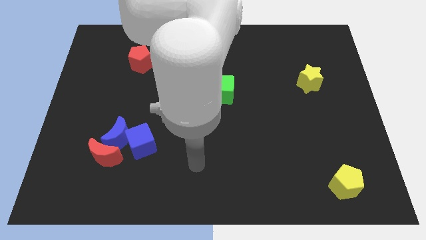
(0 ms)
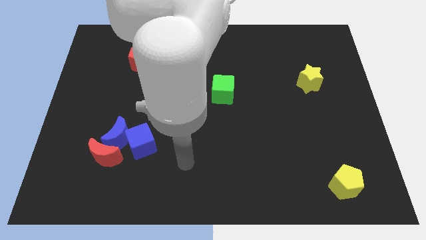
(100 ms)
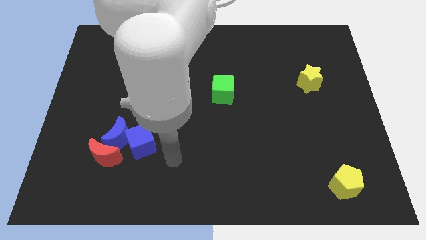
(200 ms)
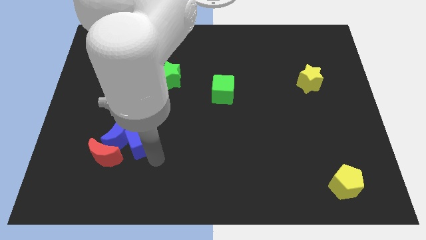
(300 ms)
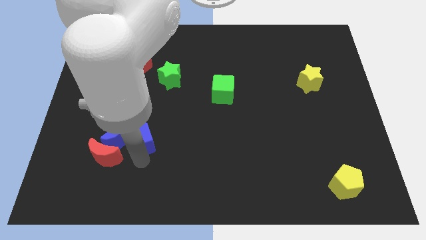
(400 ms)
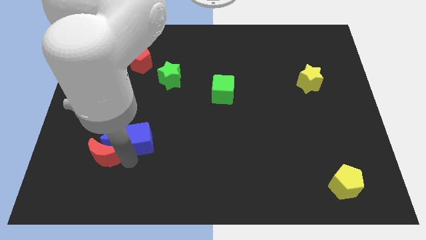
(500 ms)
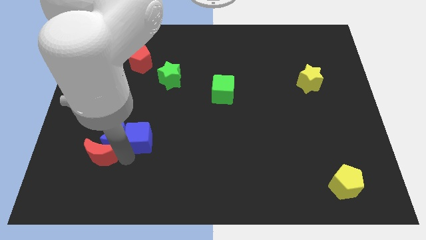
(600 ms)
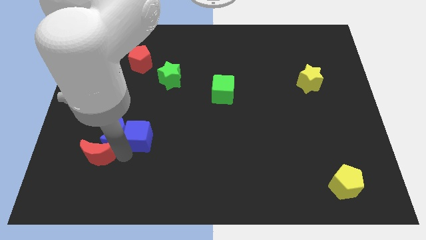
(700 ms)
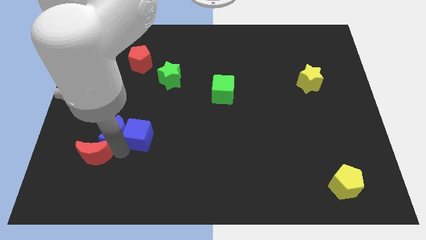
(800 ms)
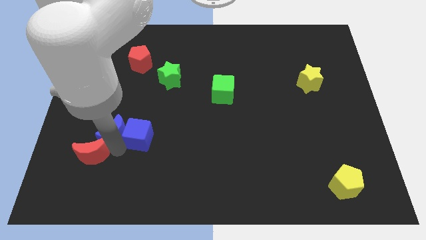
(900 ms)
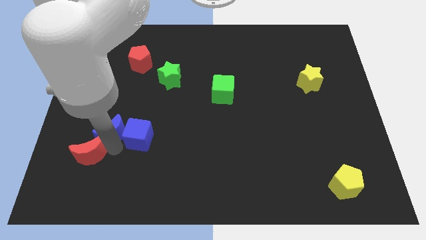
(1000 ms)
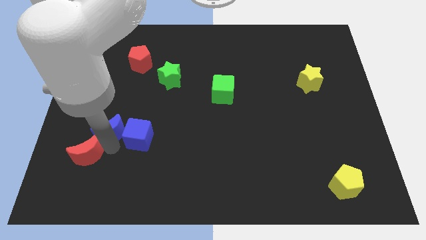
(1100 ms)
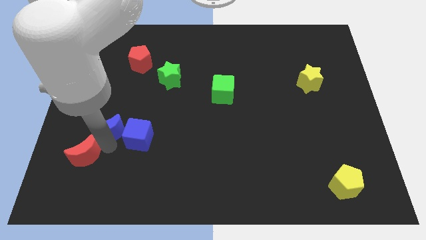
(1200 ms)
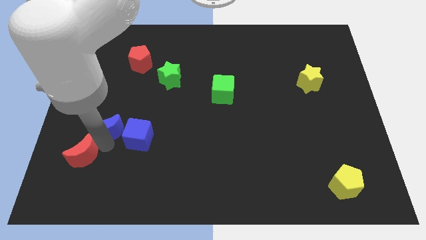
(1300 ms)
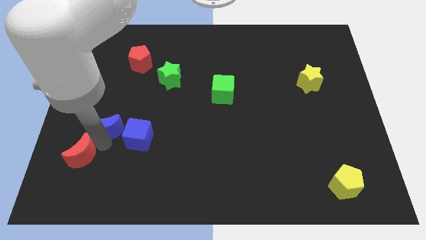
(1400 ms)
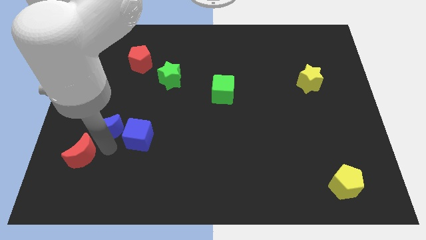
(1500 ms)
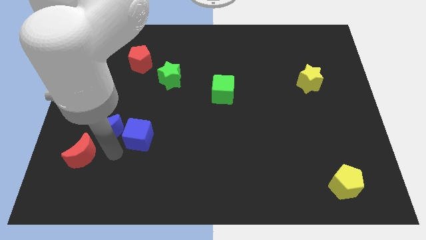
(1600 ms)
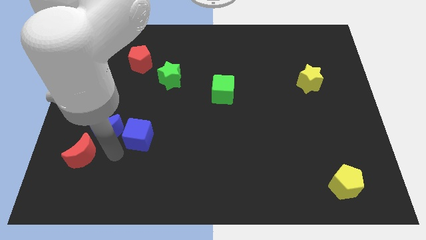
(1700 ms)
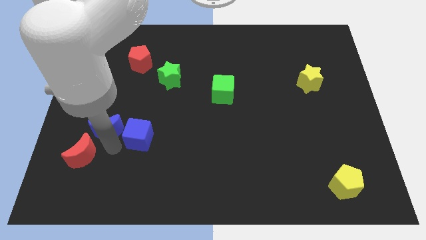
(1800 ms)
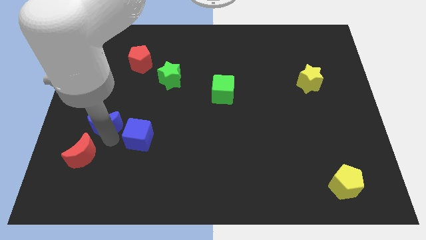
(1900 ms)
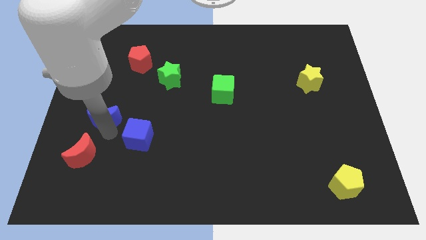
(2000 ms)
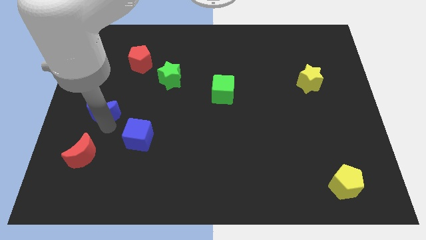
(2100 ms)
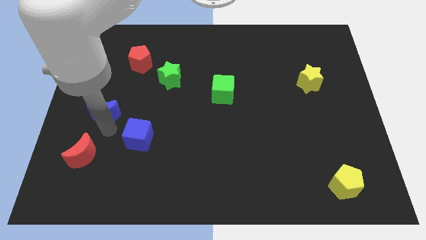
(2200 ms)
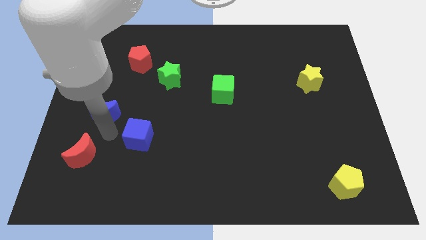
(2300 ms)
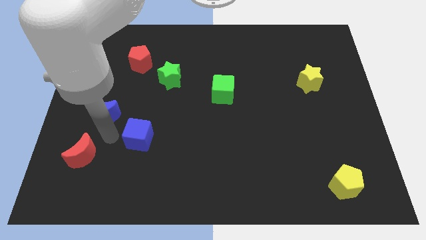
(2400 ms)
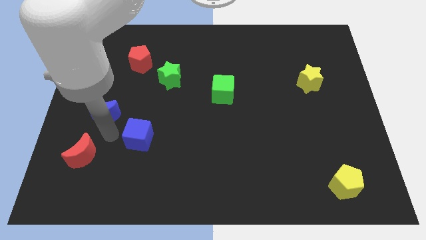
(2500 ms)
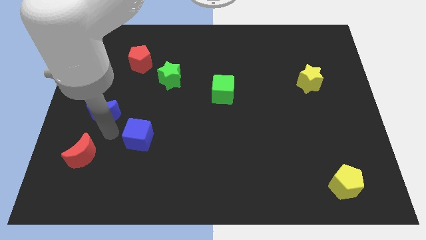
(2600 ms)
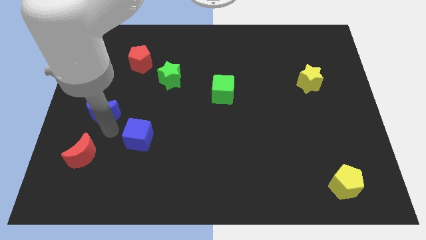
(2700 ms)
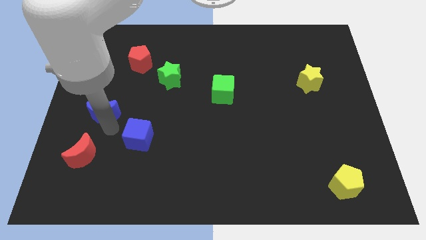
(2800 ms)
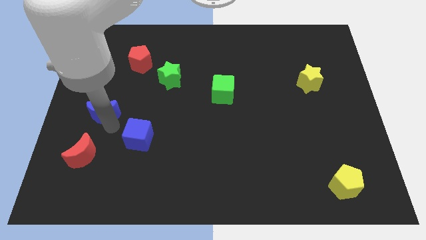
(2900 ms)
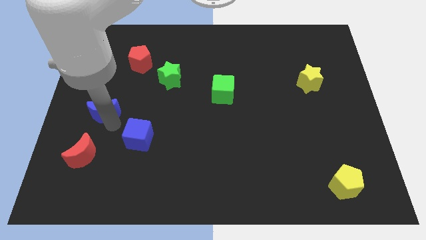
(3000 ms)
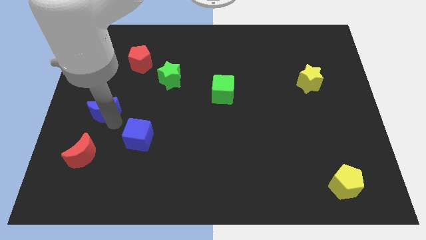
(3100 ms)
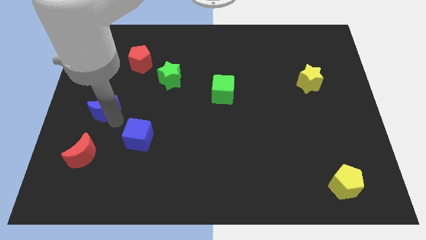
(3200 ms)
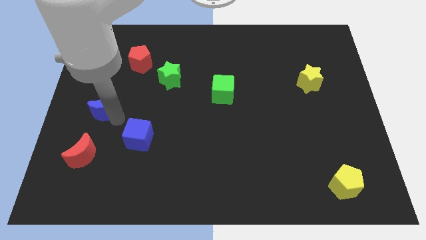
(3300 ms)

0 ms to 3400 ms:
pull the blue moon apart from the red moon and blue cube

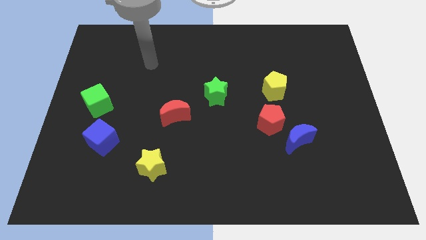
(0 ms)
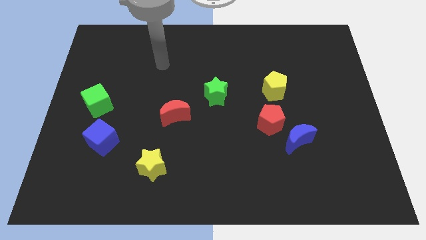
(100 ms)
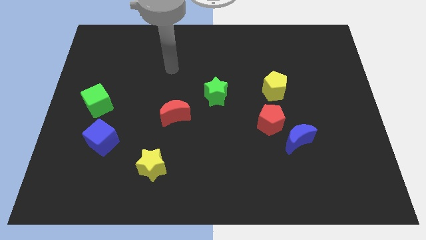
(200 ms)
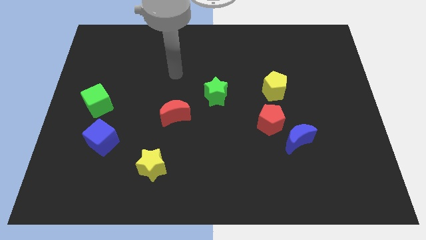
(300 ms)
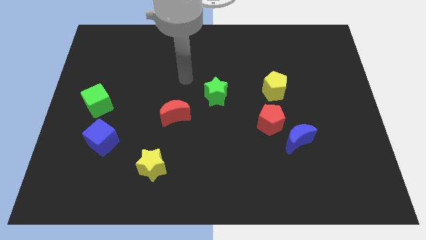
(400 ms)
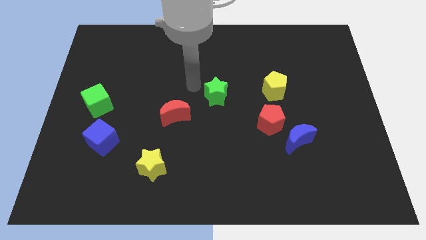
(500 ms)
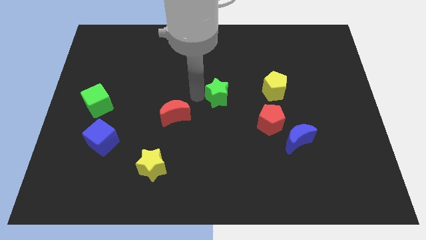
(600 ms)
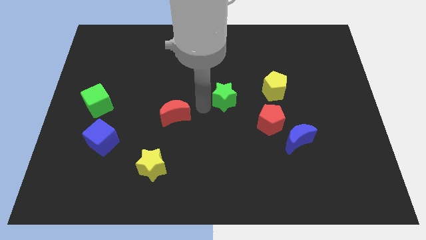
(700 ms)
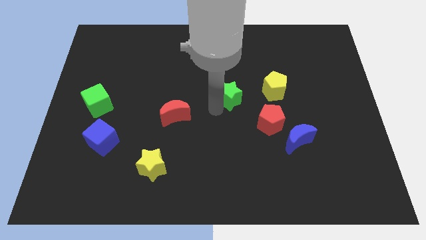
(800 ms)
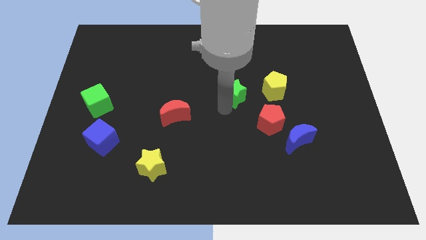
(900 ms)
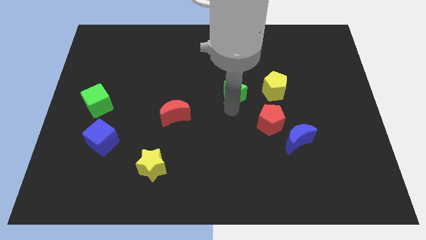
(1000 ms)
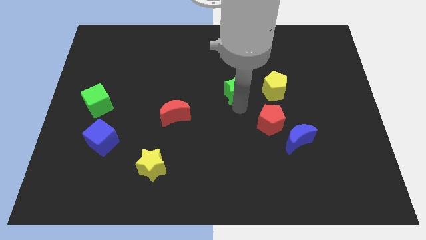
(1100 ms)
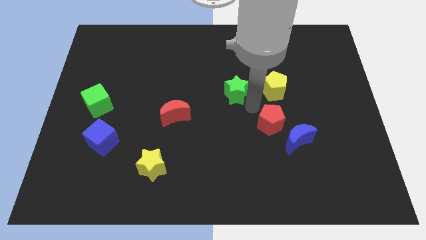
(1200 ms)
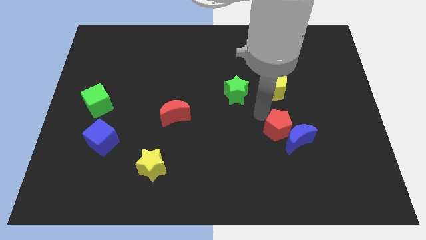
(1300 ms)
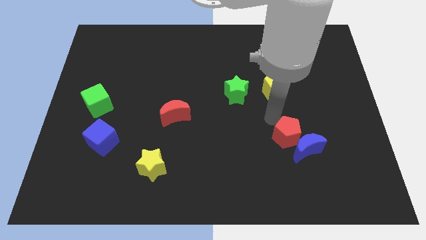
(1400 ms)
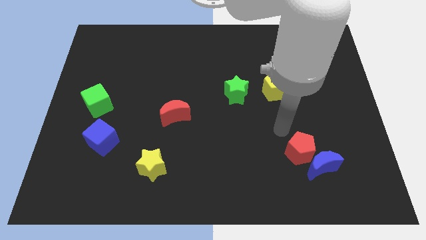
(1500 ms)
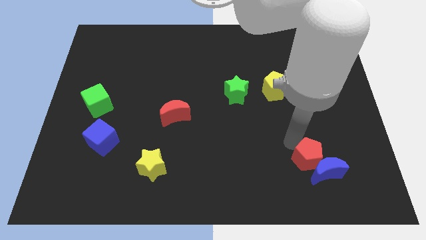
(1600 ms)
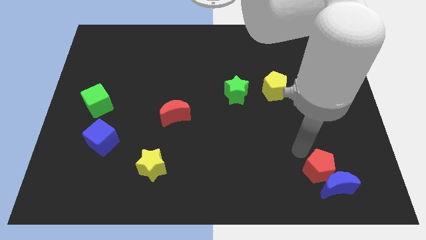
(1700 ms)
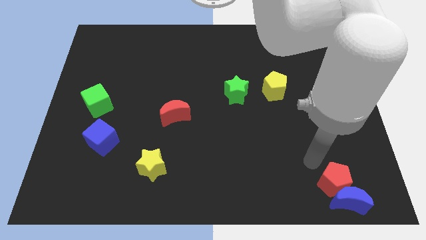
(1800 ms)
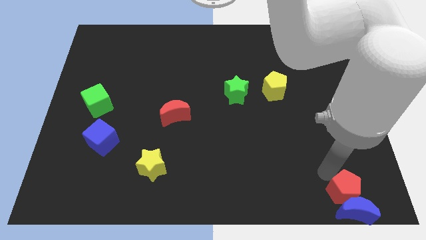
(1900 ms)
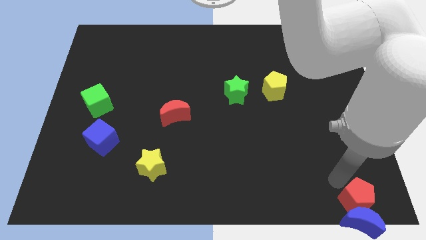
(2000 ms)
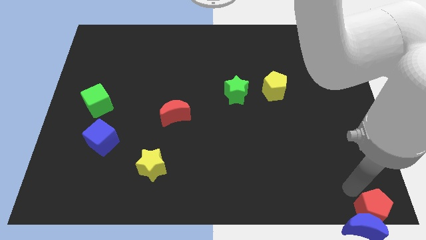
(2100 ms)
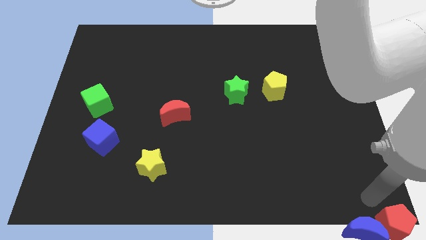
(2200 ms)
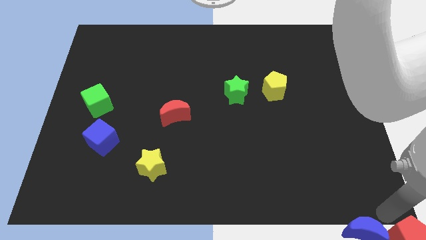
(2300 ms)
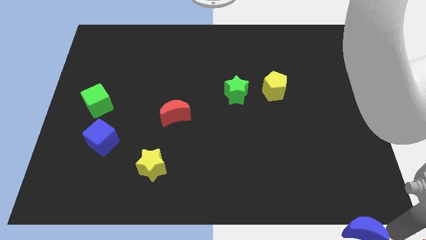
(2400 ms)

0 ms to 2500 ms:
pull the blue moon apart from the red pentagon

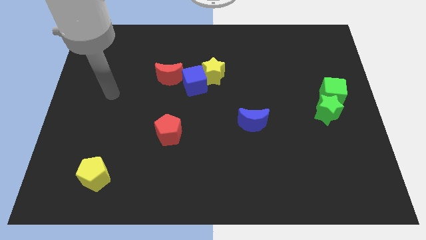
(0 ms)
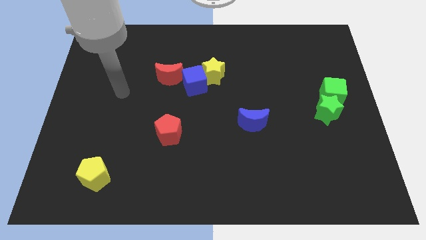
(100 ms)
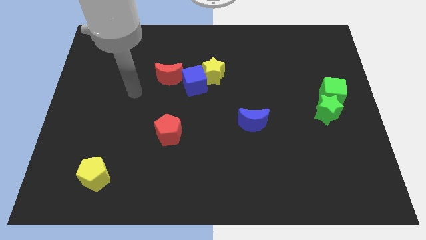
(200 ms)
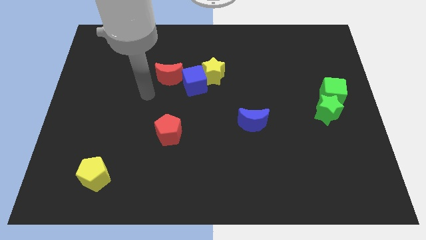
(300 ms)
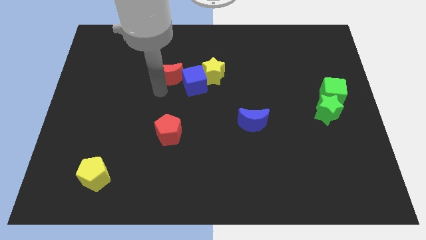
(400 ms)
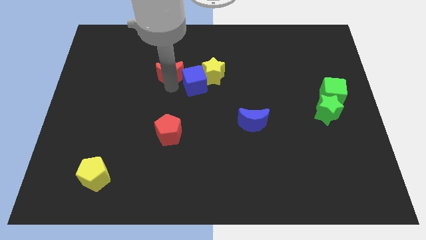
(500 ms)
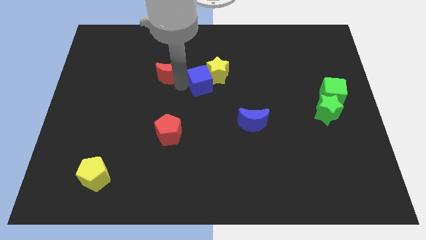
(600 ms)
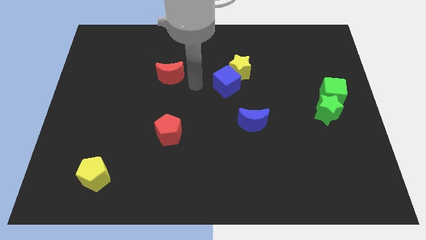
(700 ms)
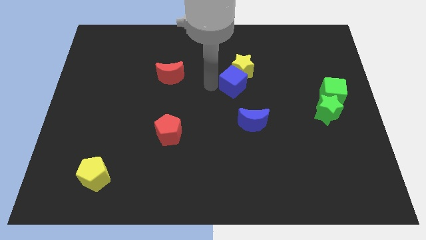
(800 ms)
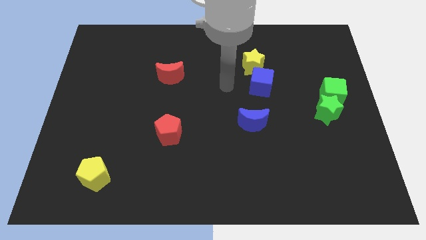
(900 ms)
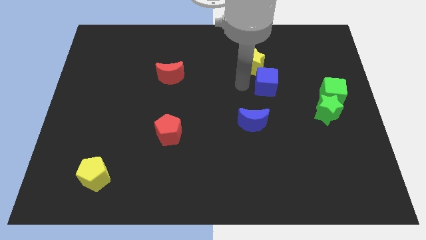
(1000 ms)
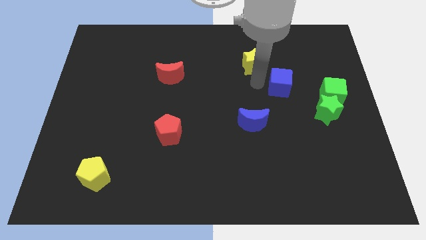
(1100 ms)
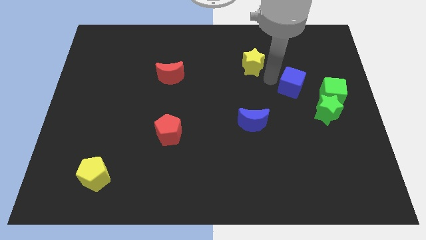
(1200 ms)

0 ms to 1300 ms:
separate the yellow star from the blue cube

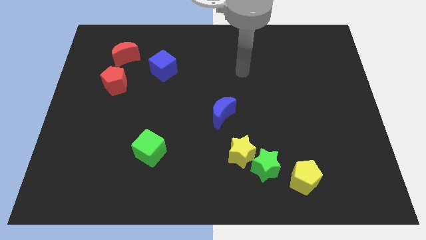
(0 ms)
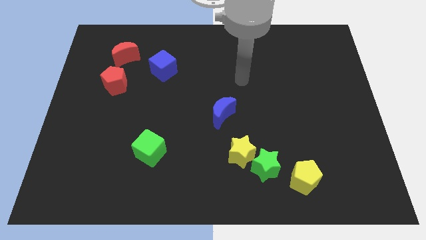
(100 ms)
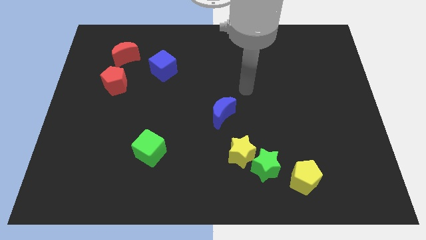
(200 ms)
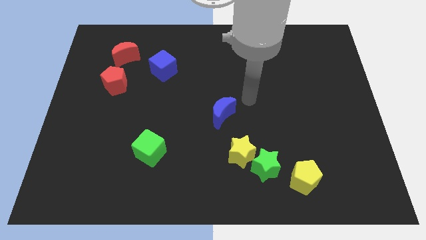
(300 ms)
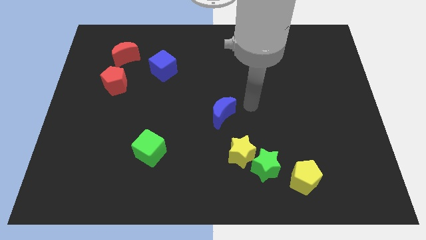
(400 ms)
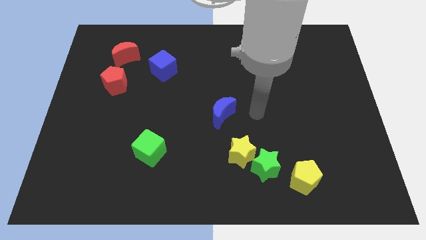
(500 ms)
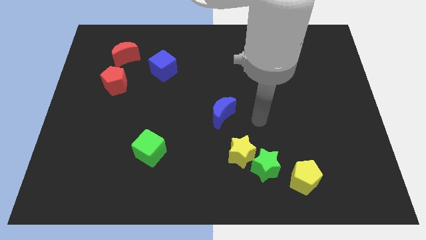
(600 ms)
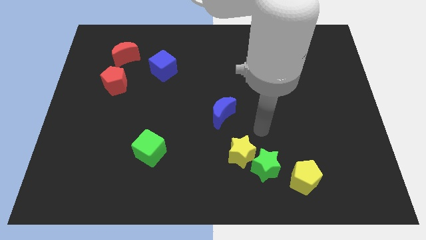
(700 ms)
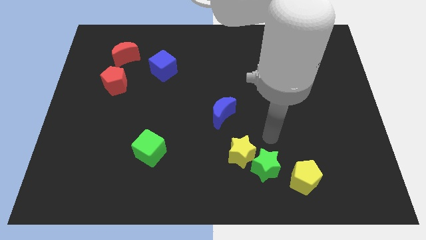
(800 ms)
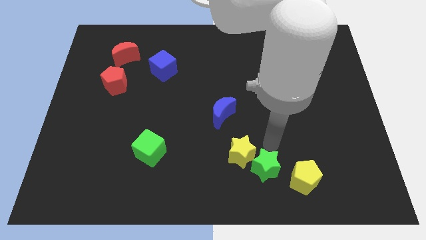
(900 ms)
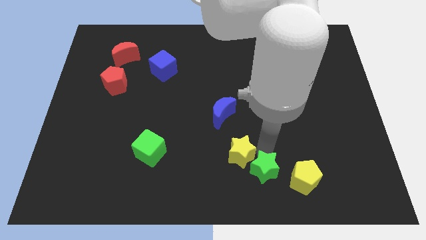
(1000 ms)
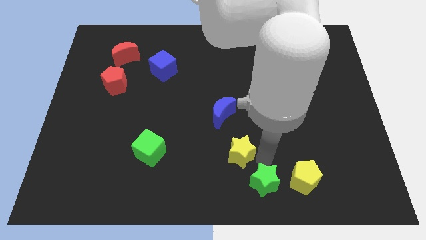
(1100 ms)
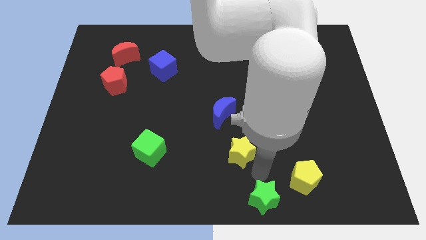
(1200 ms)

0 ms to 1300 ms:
separate the yellow star from the green star

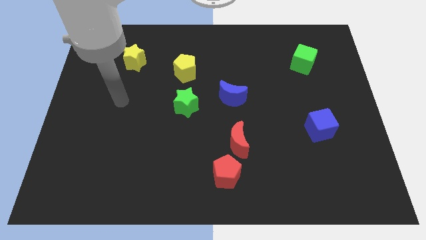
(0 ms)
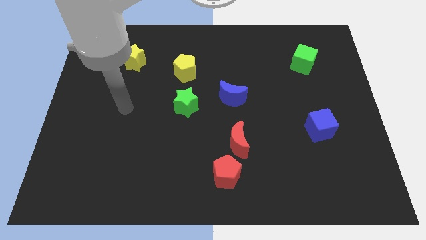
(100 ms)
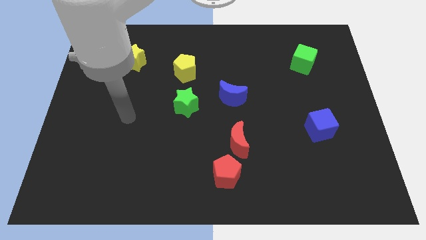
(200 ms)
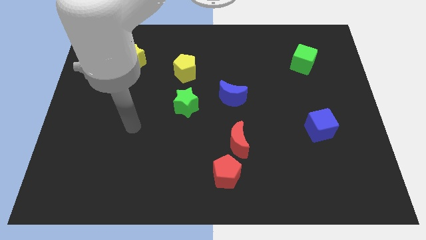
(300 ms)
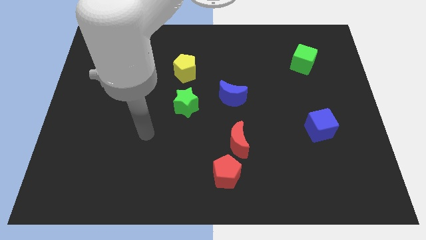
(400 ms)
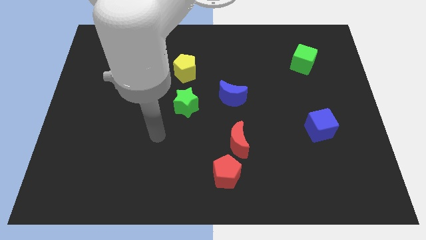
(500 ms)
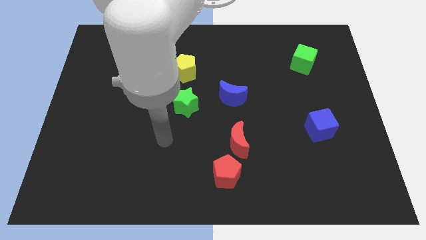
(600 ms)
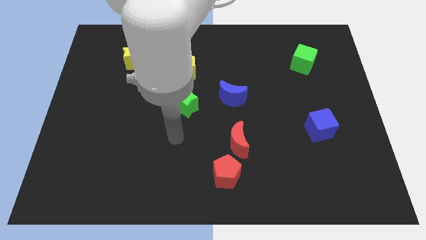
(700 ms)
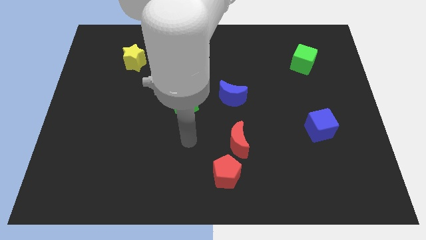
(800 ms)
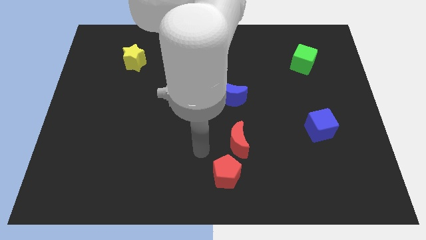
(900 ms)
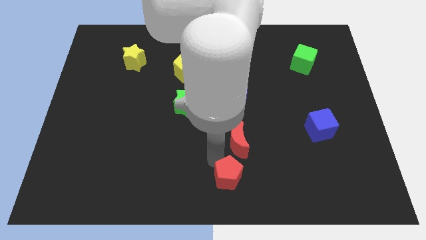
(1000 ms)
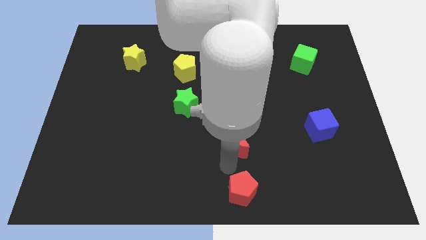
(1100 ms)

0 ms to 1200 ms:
separate the red moon from the red pentagon
